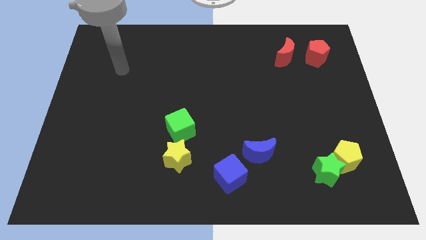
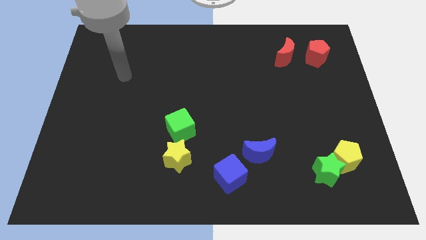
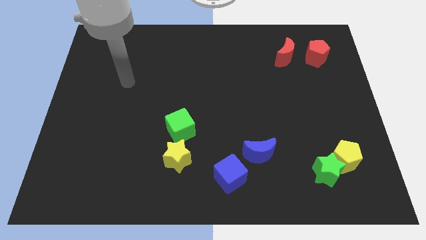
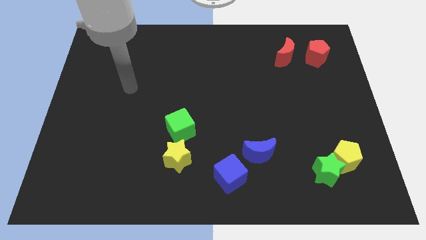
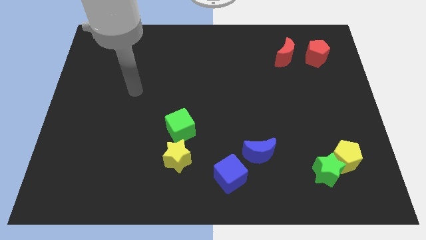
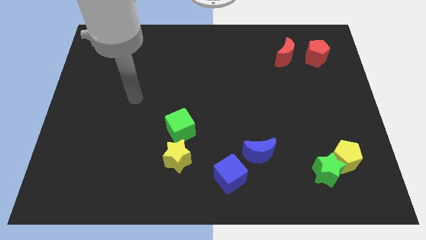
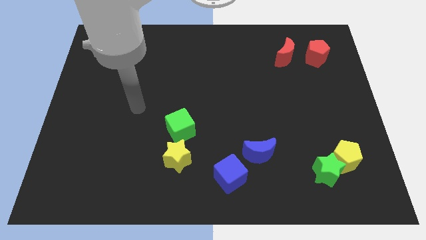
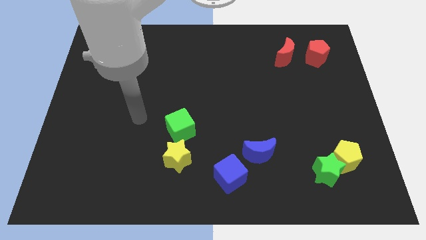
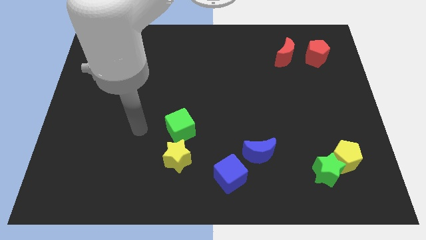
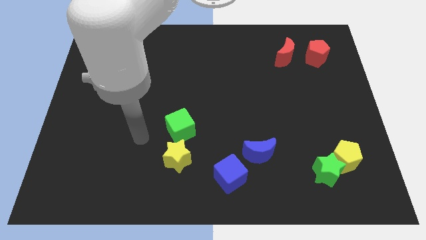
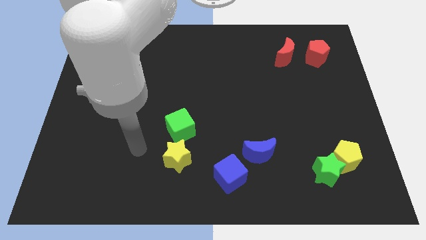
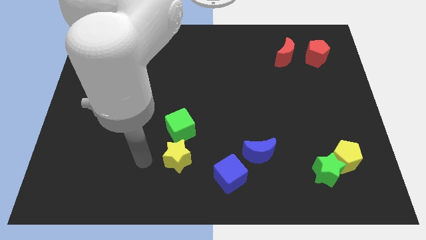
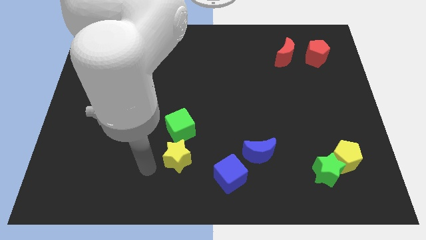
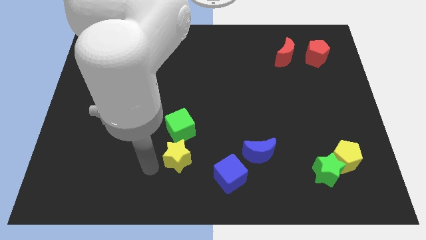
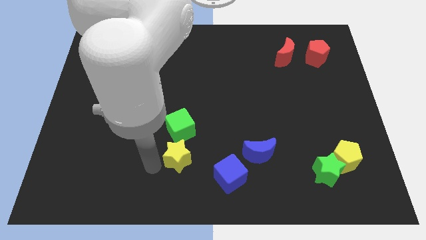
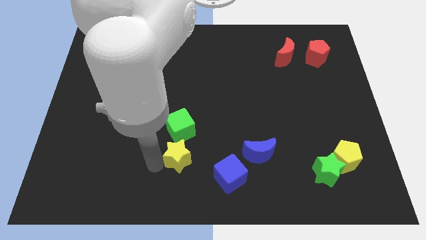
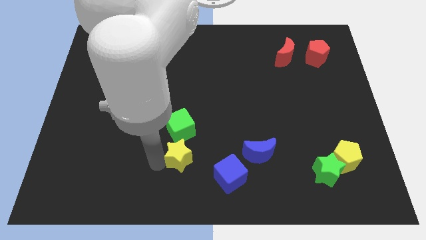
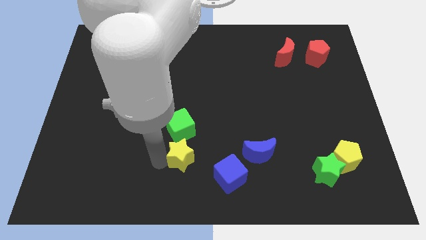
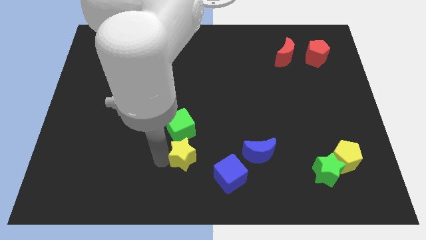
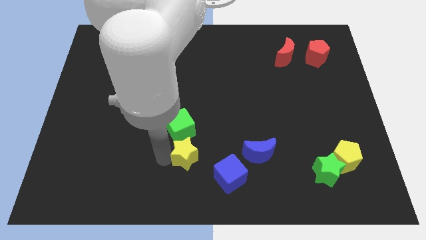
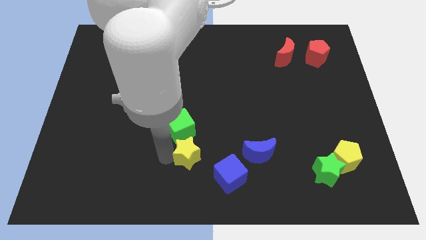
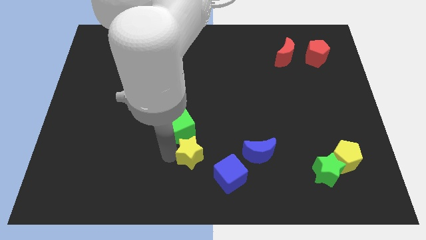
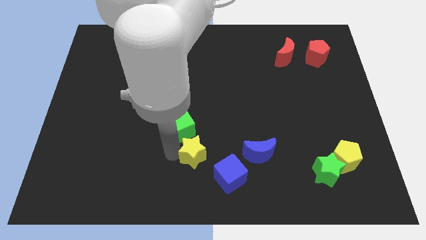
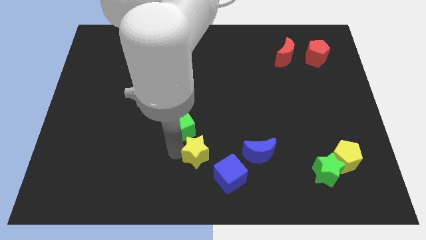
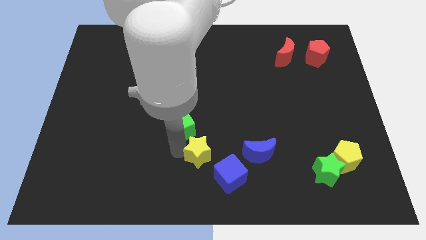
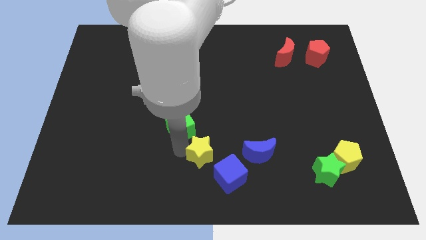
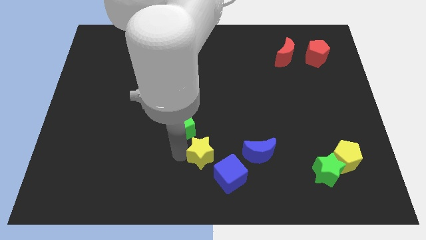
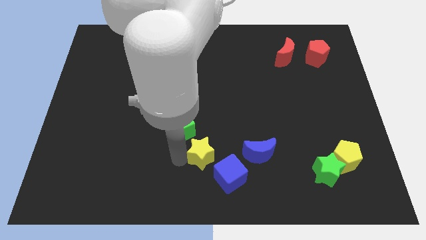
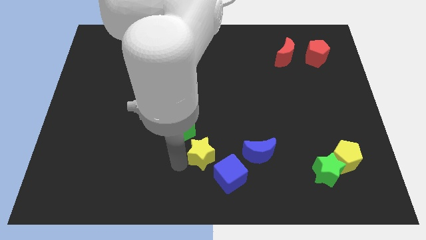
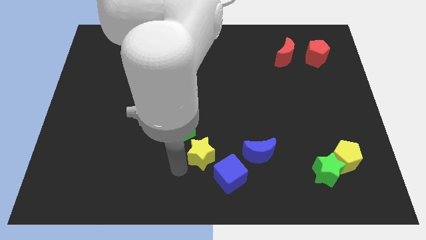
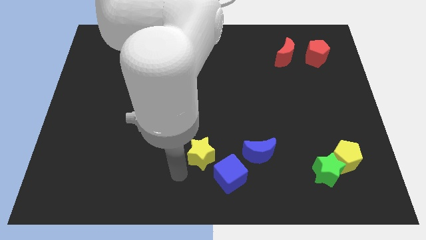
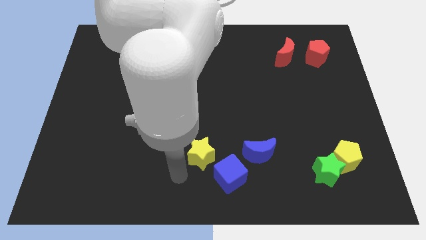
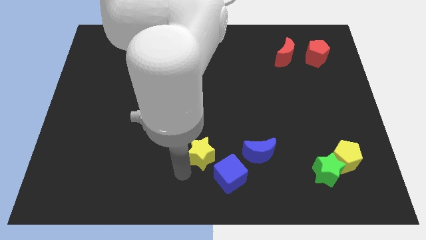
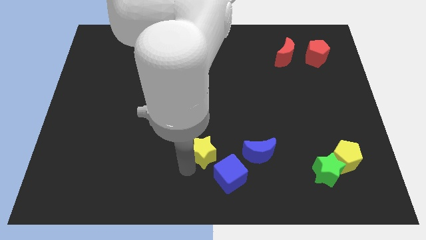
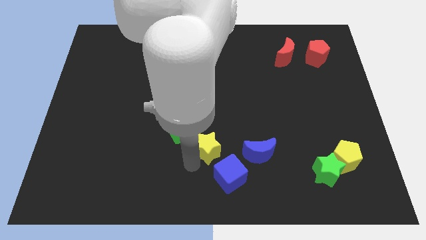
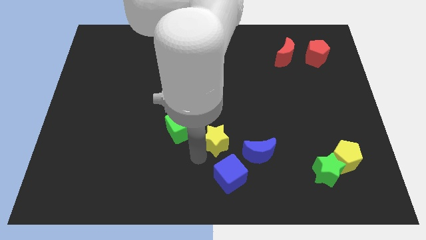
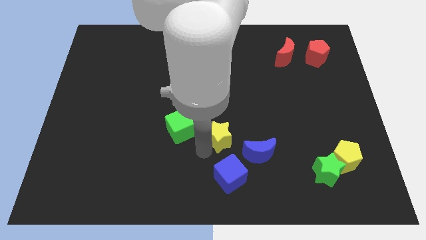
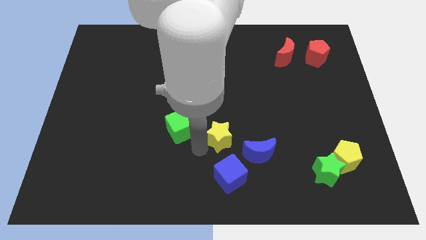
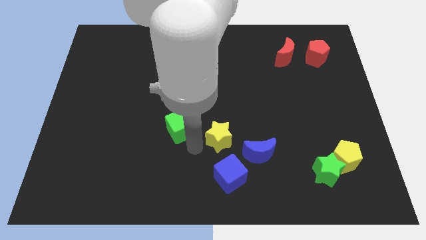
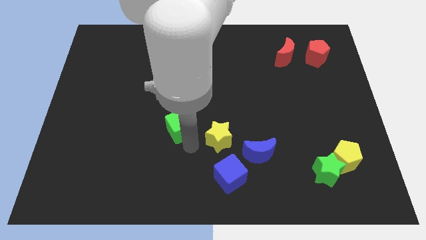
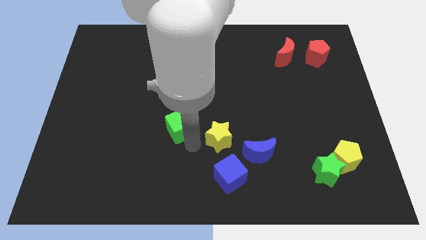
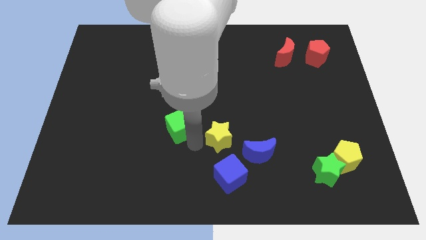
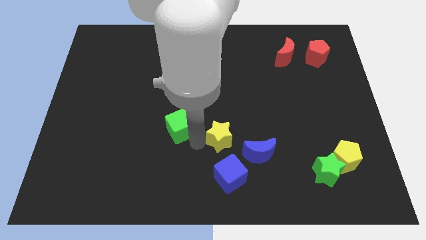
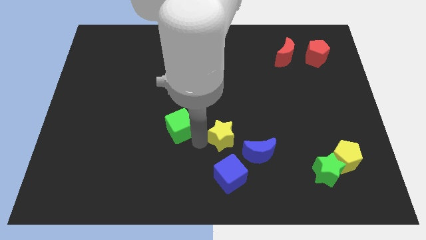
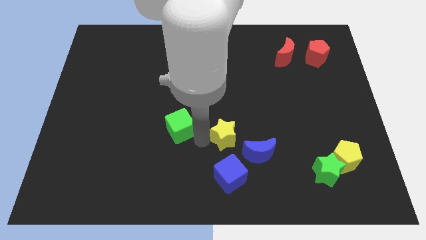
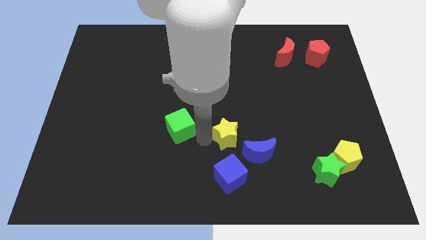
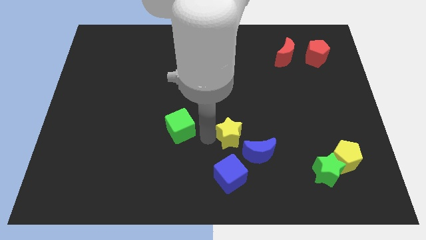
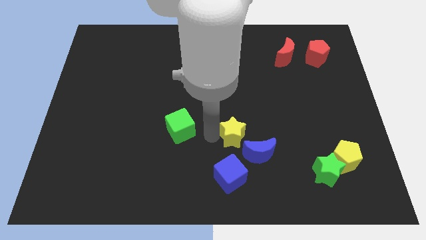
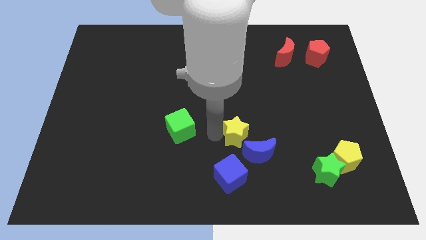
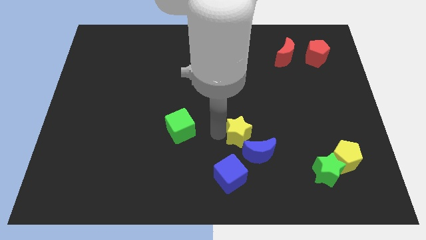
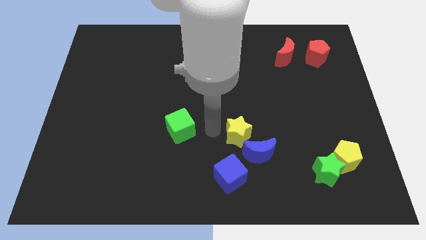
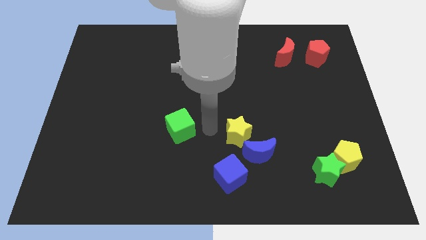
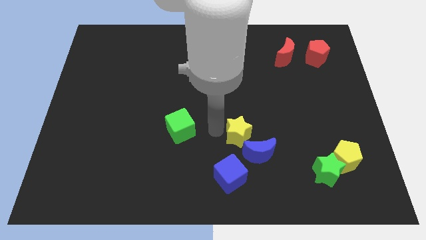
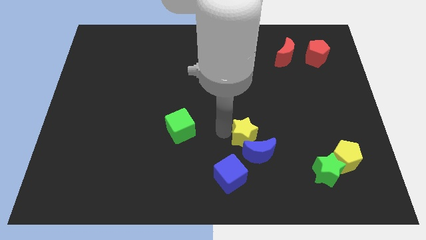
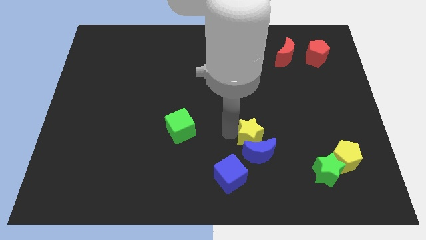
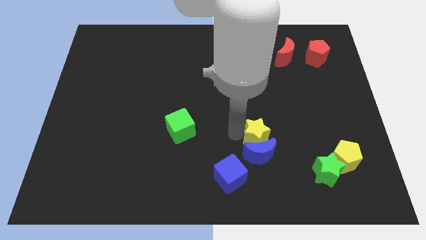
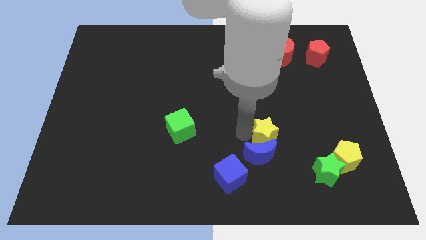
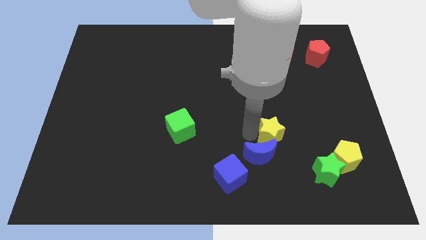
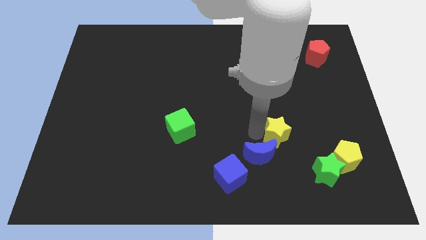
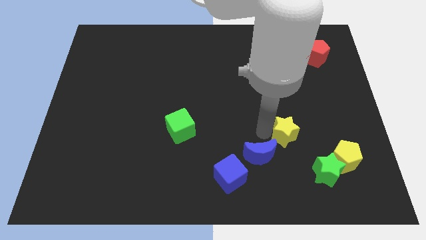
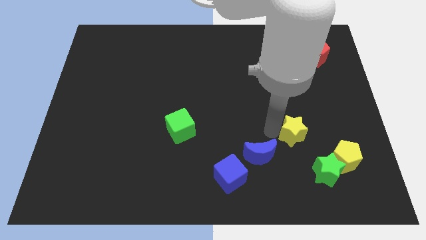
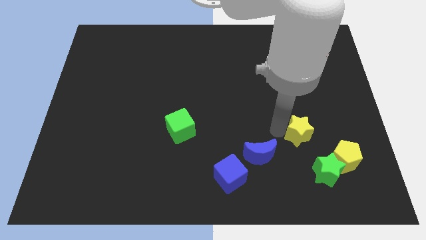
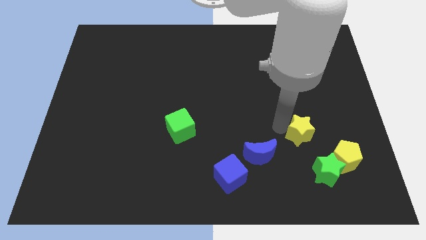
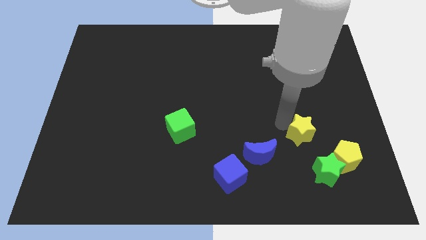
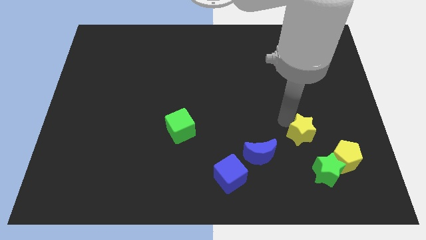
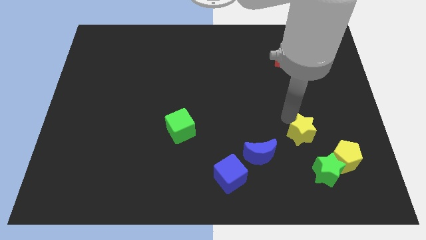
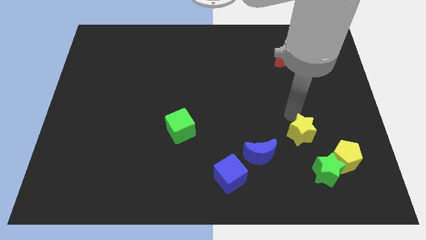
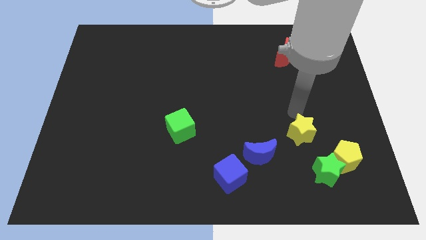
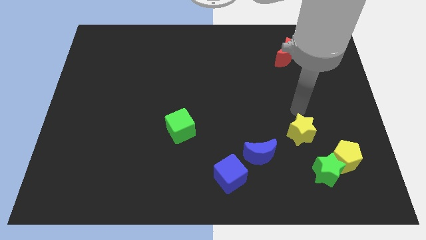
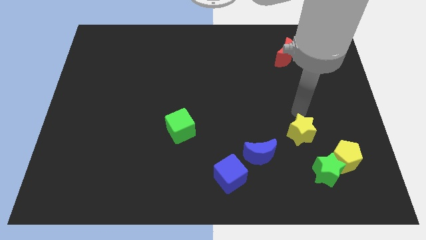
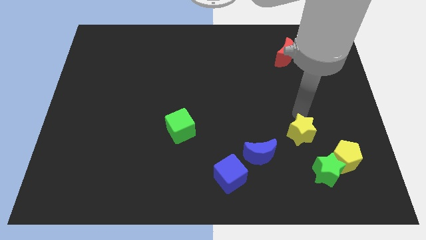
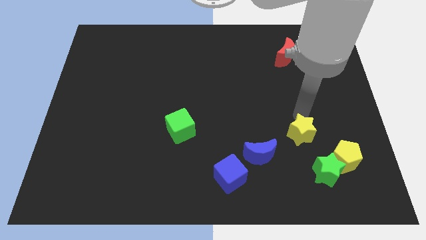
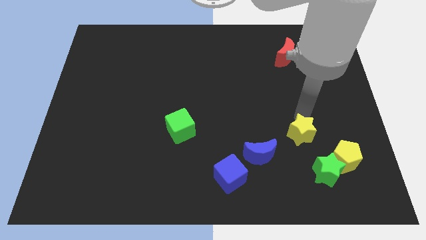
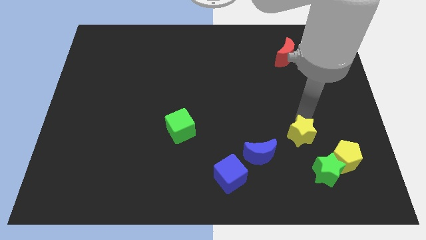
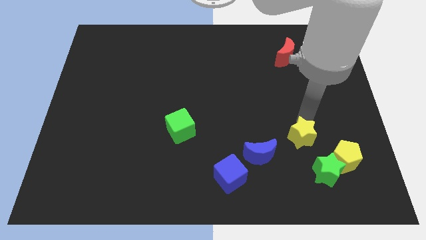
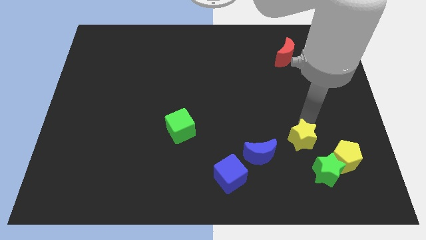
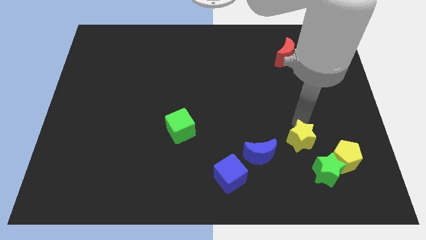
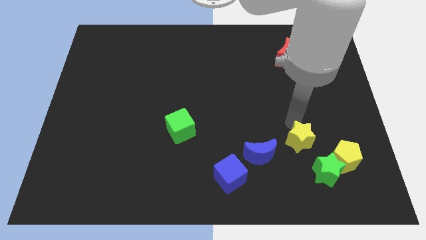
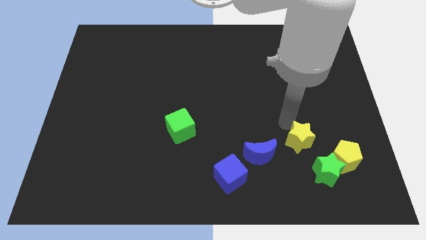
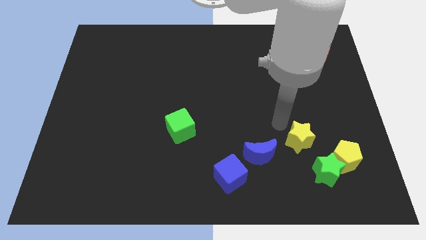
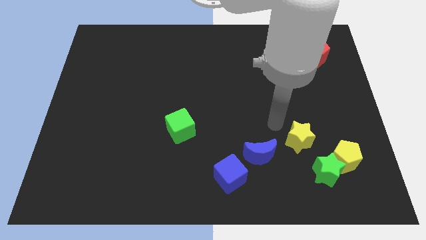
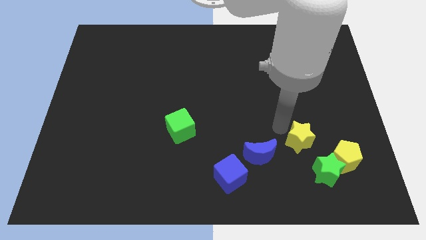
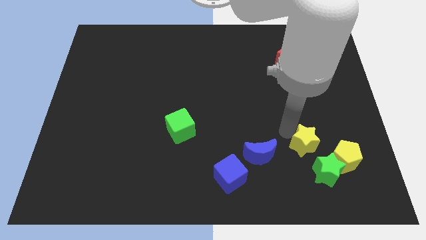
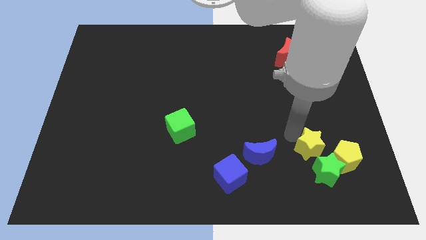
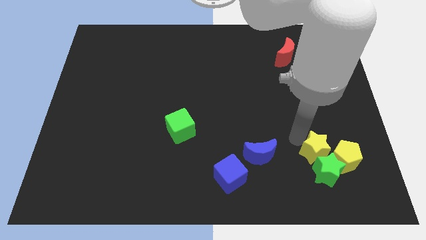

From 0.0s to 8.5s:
slide the yellow star next to the yellow pentagon
